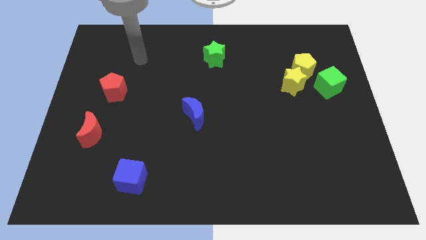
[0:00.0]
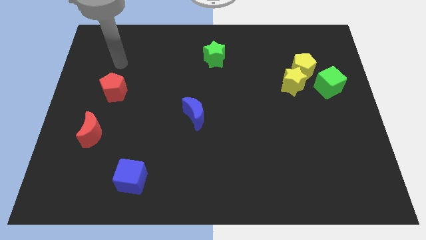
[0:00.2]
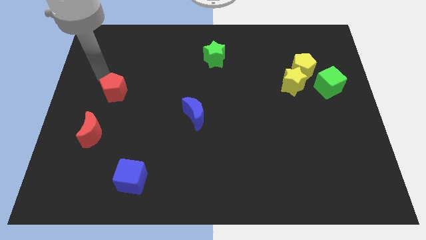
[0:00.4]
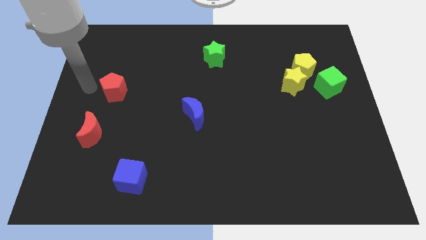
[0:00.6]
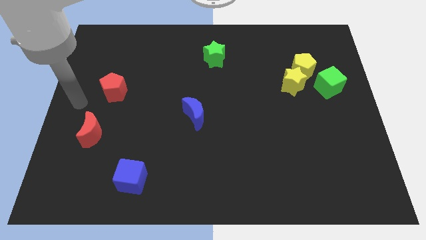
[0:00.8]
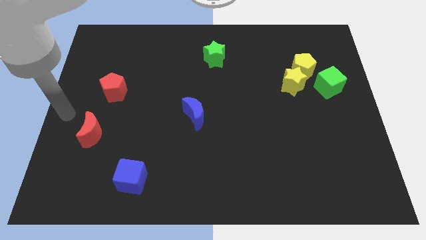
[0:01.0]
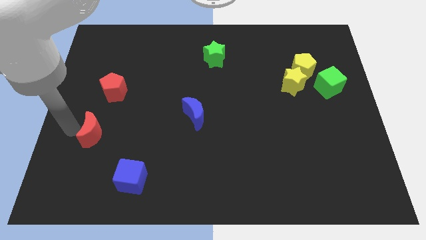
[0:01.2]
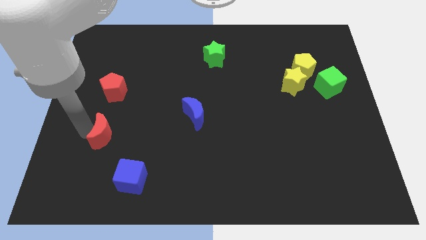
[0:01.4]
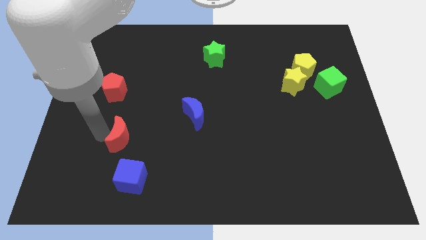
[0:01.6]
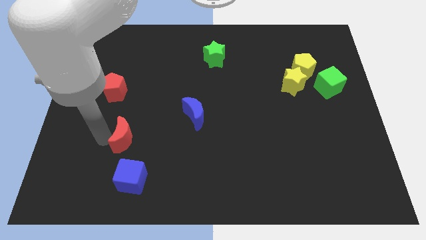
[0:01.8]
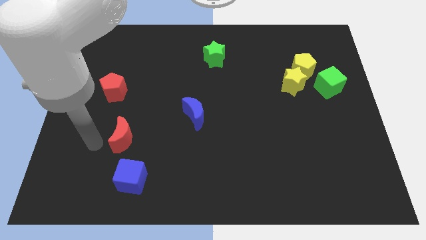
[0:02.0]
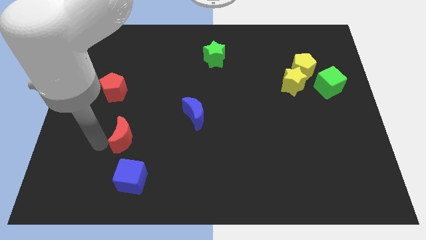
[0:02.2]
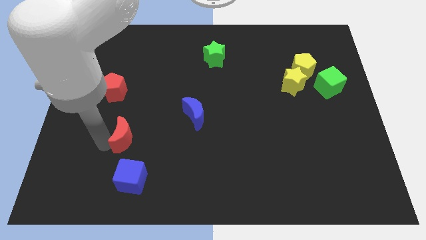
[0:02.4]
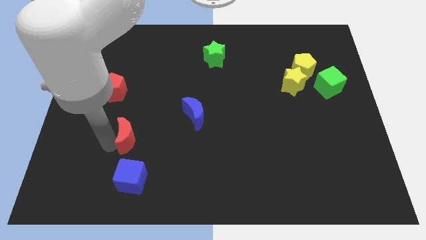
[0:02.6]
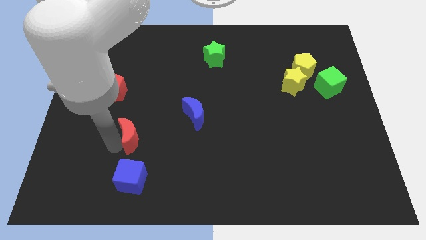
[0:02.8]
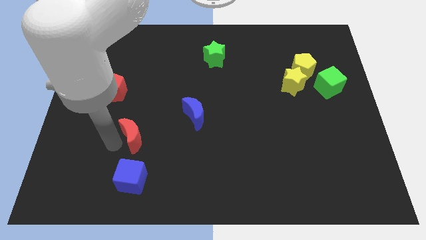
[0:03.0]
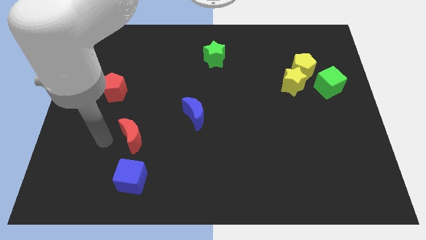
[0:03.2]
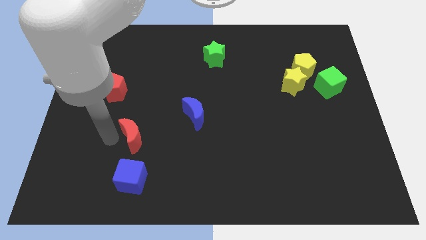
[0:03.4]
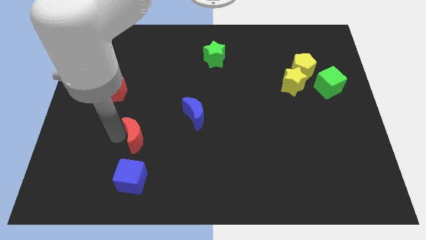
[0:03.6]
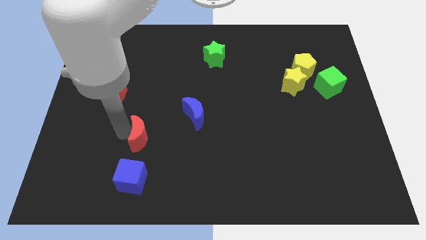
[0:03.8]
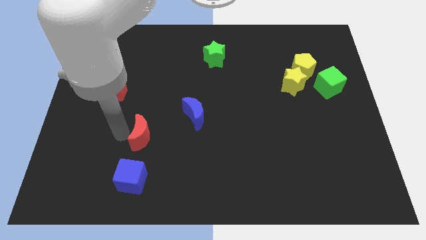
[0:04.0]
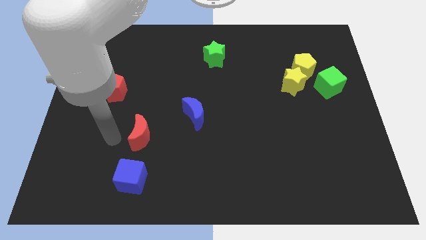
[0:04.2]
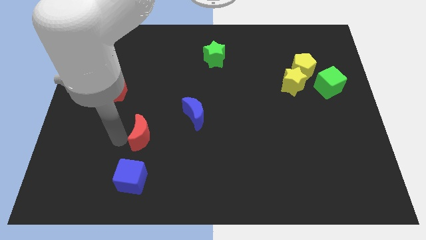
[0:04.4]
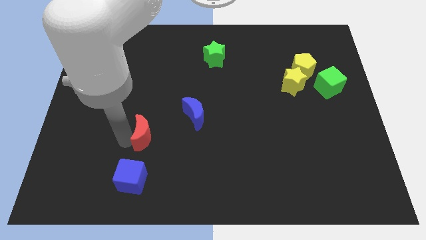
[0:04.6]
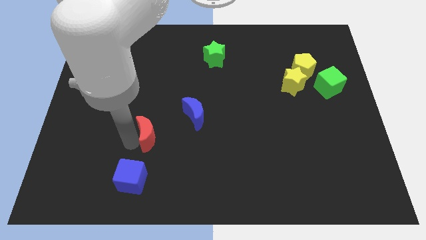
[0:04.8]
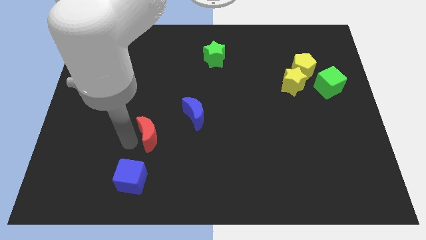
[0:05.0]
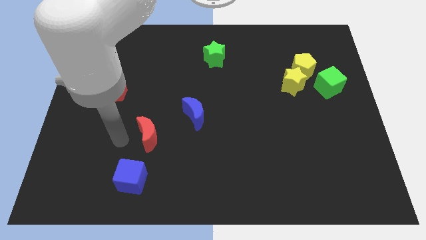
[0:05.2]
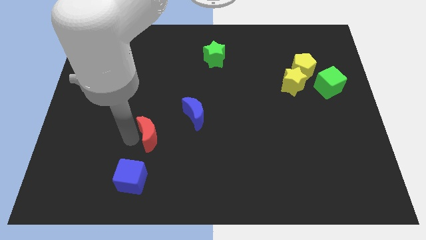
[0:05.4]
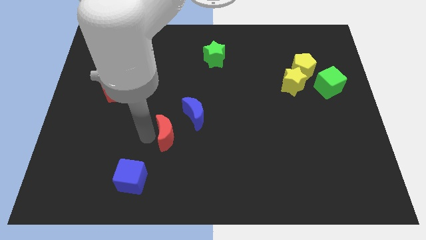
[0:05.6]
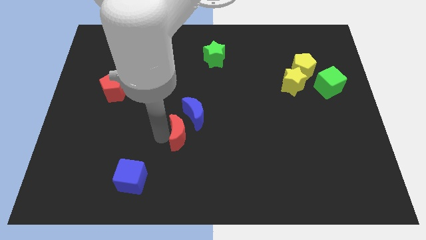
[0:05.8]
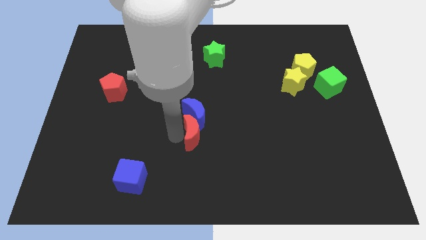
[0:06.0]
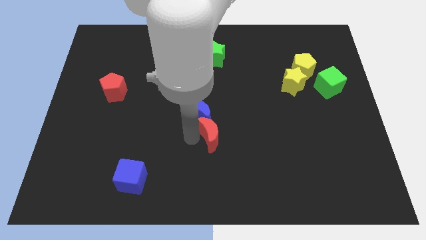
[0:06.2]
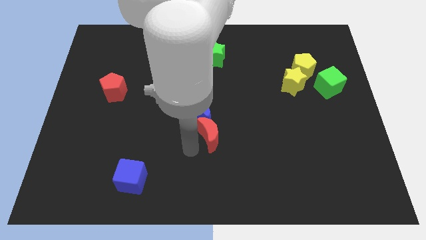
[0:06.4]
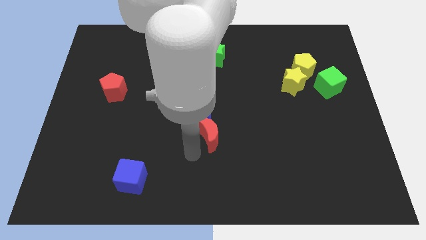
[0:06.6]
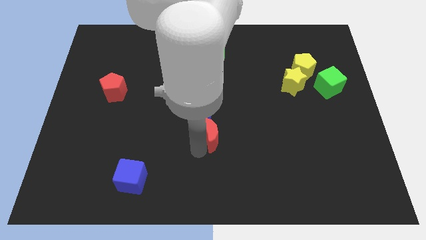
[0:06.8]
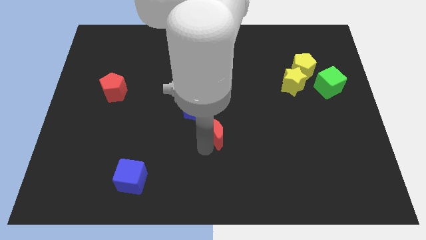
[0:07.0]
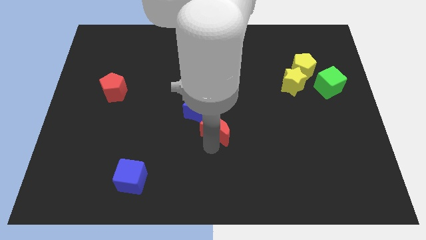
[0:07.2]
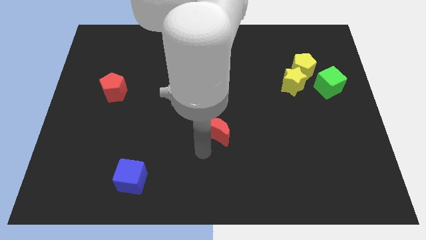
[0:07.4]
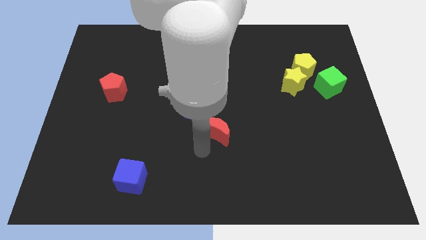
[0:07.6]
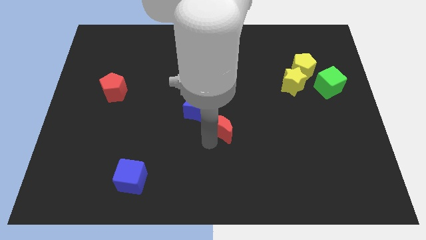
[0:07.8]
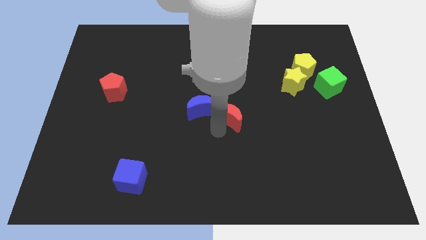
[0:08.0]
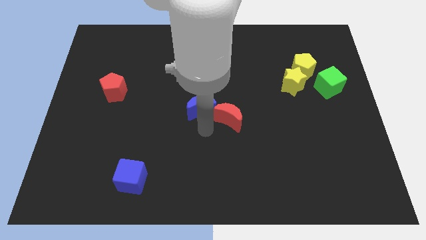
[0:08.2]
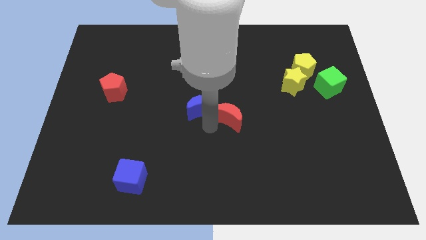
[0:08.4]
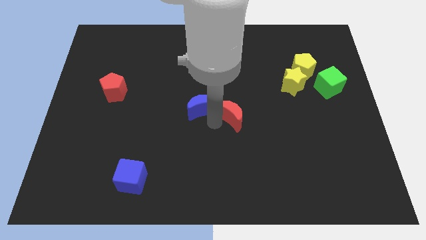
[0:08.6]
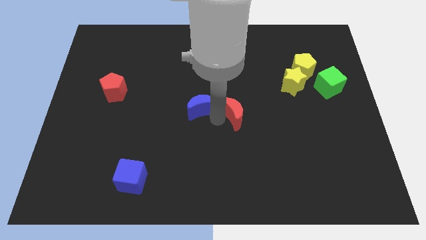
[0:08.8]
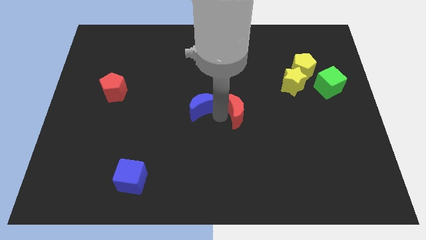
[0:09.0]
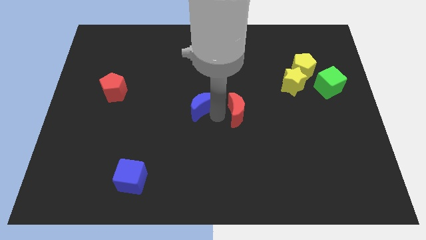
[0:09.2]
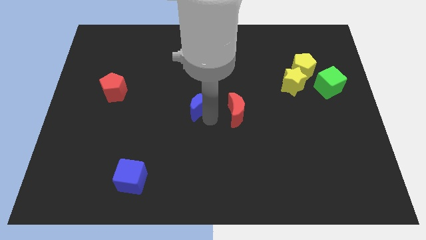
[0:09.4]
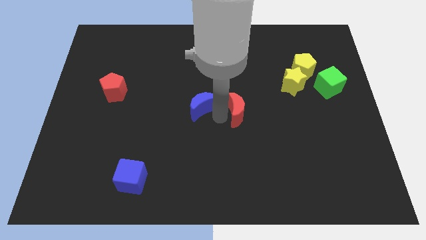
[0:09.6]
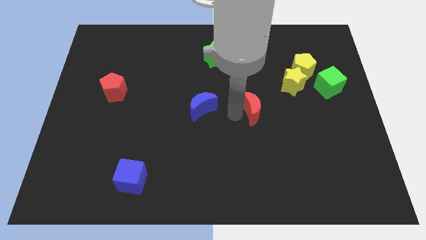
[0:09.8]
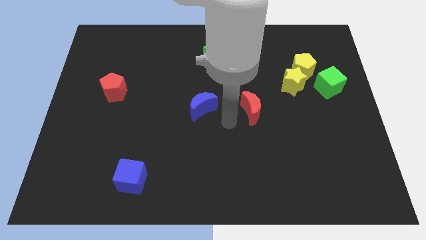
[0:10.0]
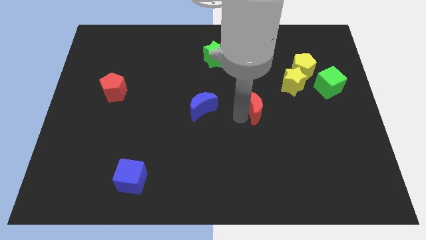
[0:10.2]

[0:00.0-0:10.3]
slide the red moon to the bottom left of the yellow star

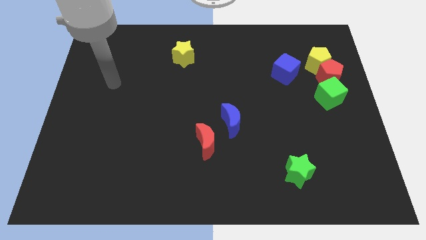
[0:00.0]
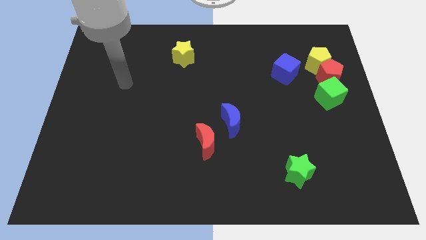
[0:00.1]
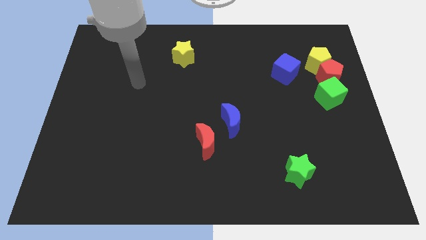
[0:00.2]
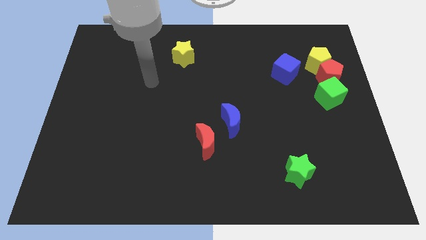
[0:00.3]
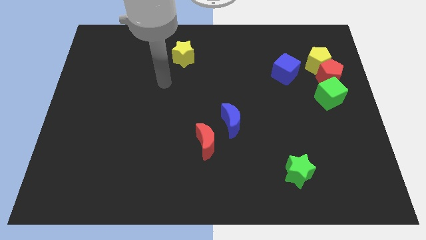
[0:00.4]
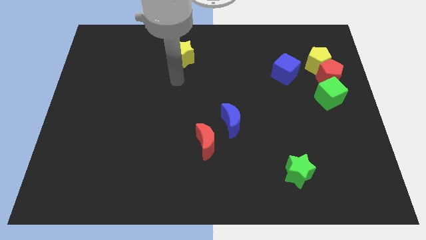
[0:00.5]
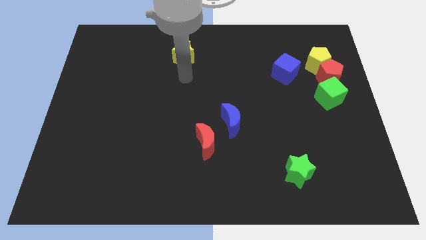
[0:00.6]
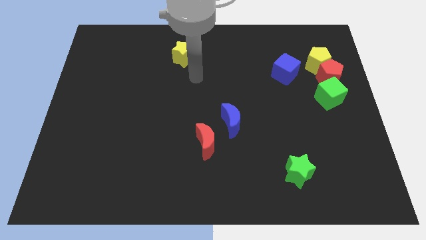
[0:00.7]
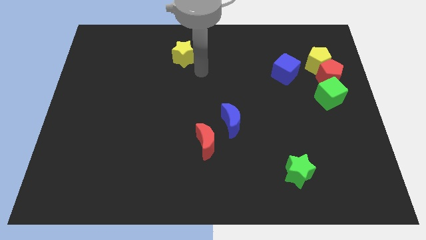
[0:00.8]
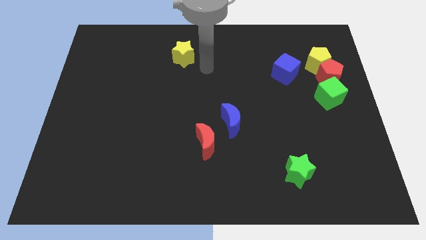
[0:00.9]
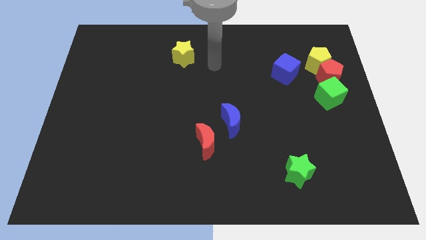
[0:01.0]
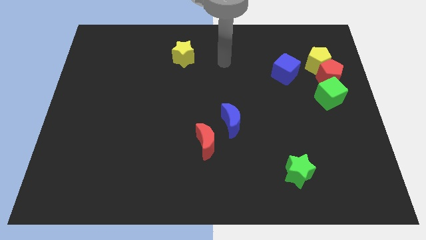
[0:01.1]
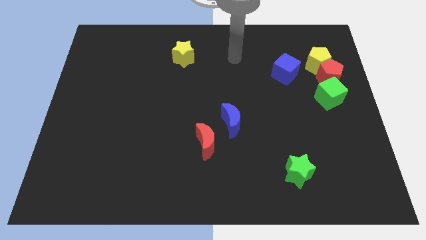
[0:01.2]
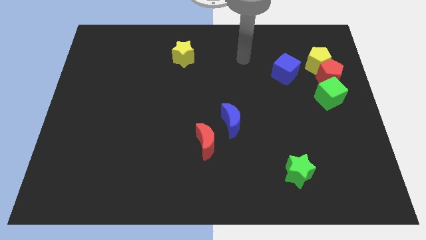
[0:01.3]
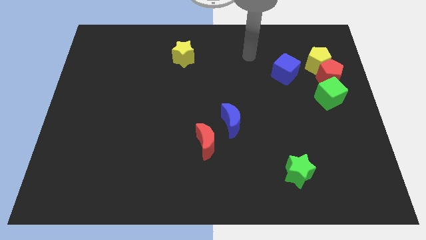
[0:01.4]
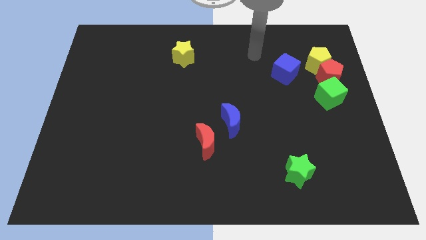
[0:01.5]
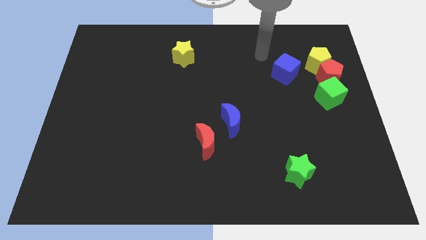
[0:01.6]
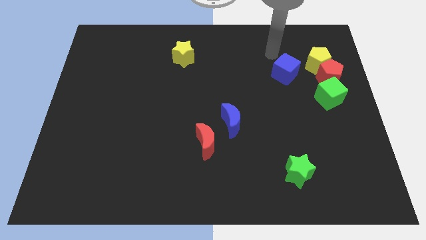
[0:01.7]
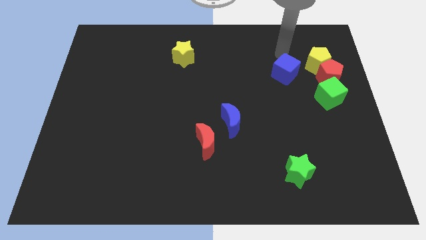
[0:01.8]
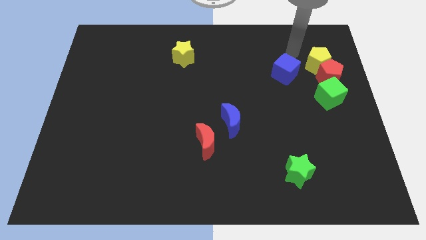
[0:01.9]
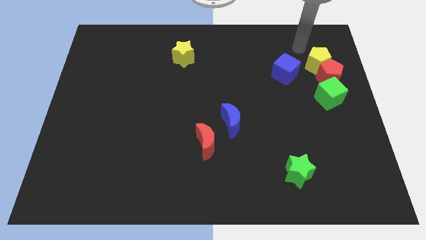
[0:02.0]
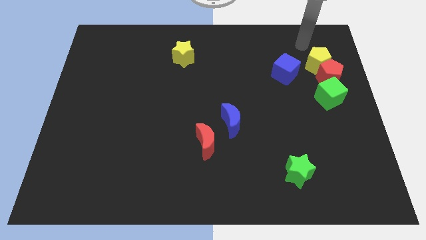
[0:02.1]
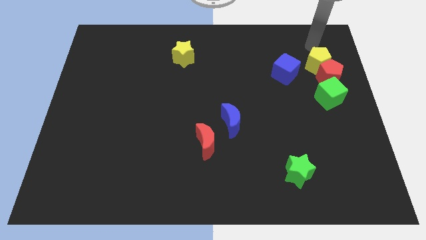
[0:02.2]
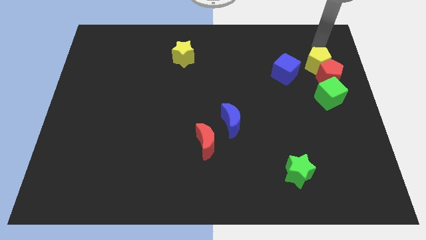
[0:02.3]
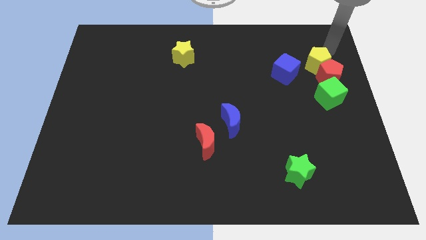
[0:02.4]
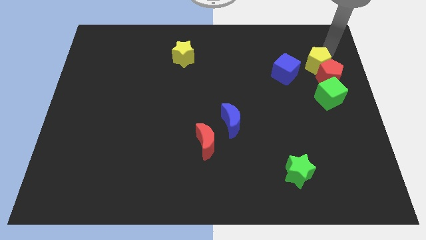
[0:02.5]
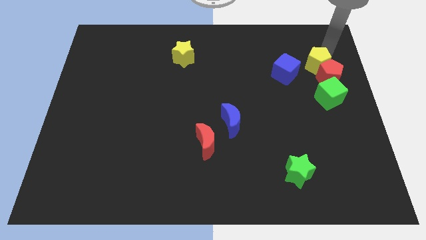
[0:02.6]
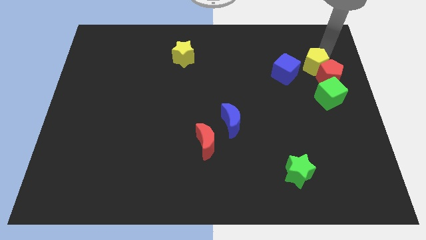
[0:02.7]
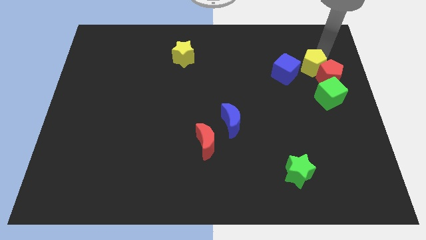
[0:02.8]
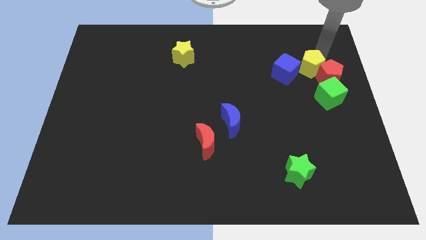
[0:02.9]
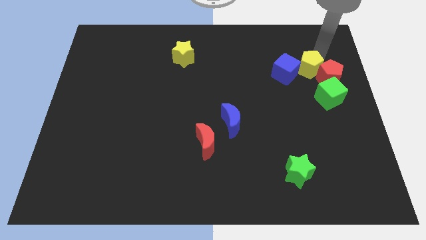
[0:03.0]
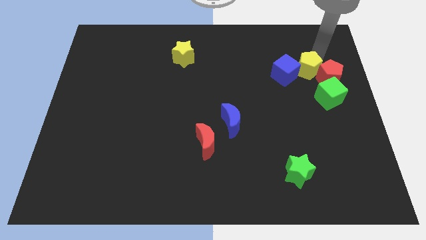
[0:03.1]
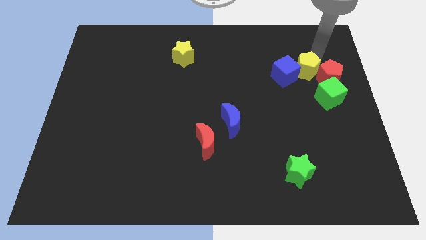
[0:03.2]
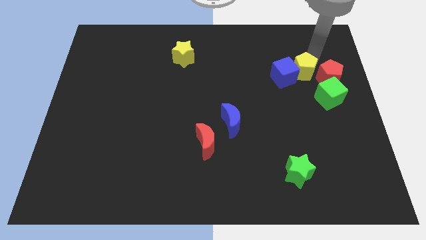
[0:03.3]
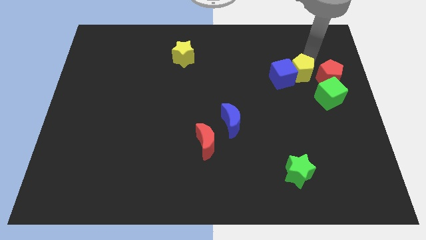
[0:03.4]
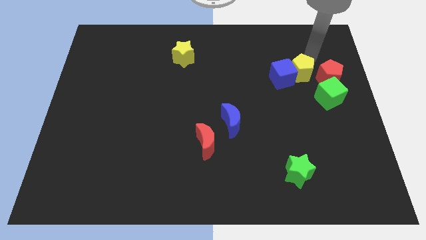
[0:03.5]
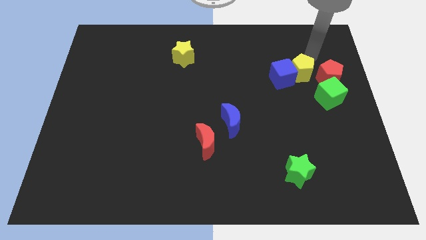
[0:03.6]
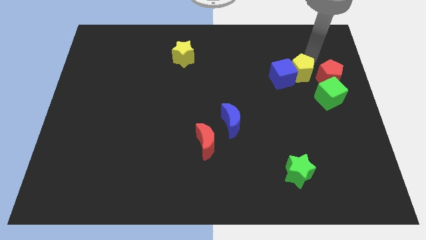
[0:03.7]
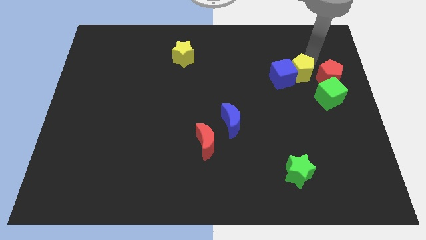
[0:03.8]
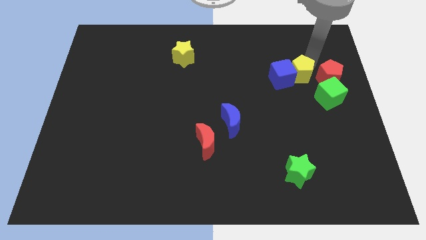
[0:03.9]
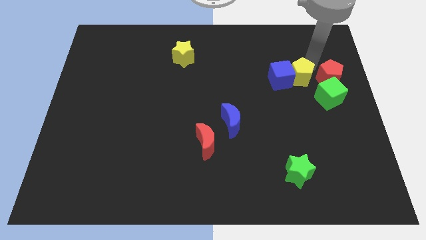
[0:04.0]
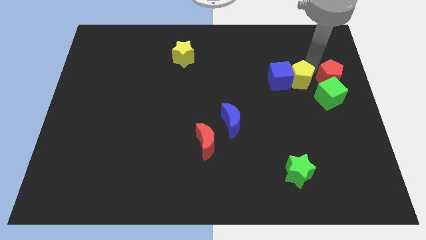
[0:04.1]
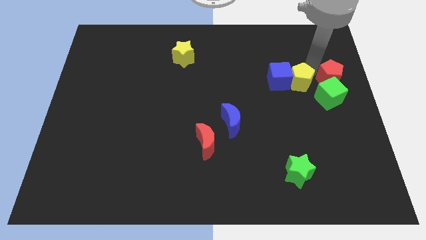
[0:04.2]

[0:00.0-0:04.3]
move the yellow pentagon left of the green cube
